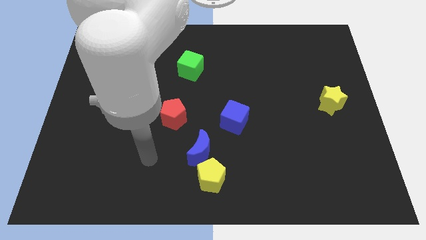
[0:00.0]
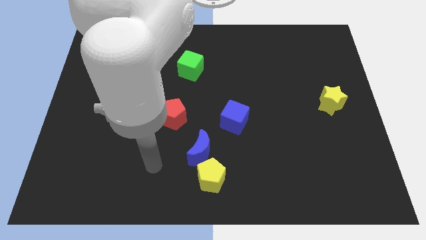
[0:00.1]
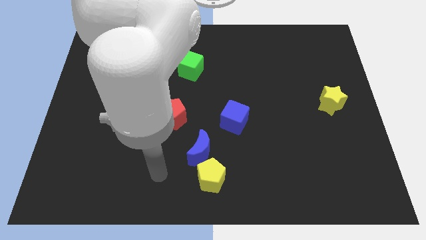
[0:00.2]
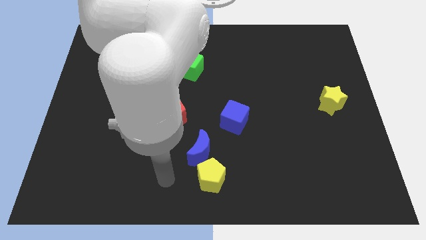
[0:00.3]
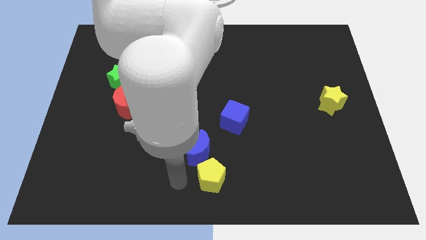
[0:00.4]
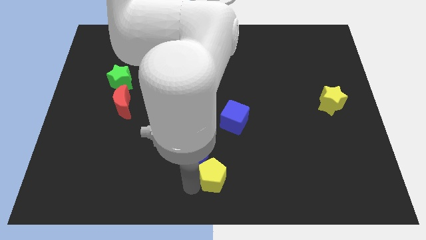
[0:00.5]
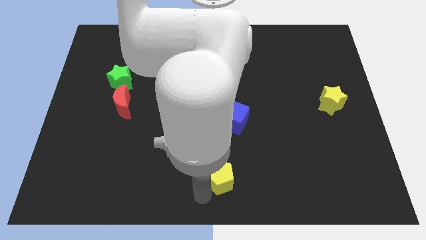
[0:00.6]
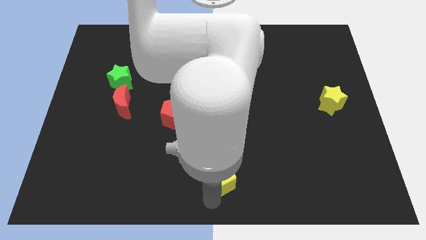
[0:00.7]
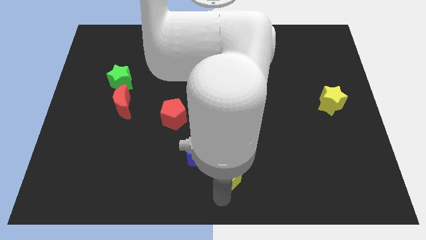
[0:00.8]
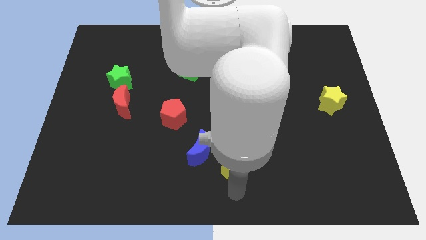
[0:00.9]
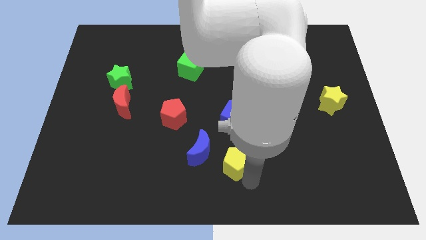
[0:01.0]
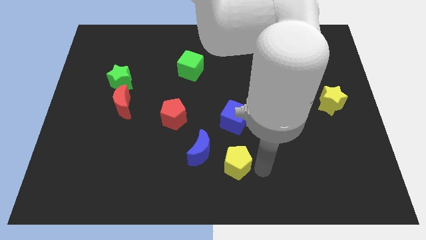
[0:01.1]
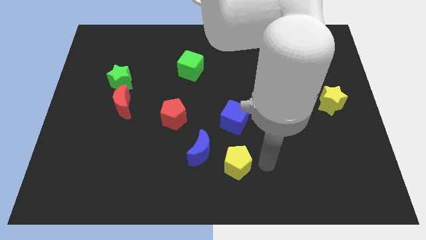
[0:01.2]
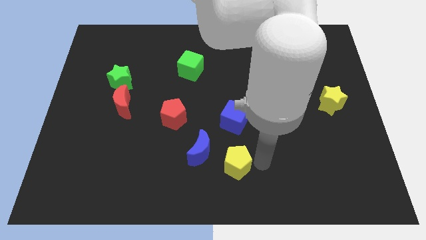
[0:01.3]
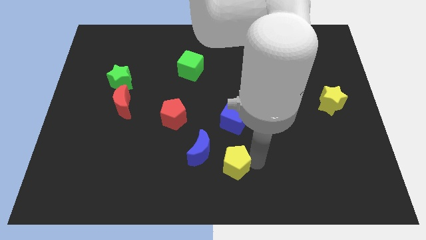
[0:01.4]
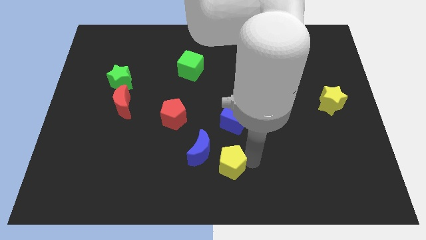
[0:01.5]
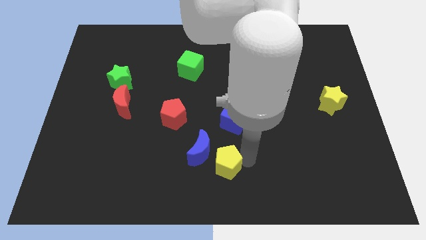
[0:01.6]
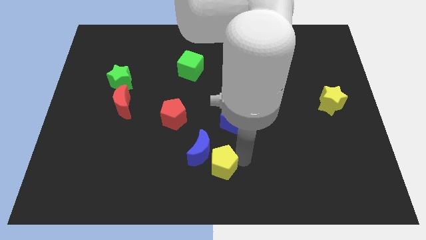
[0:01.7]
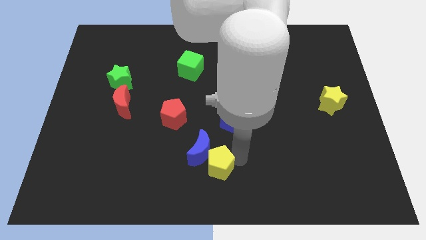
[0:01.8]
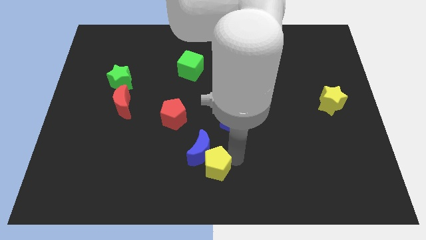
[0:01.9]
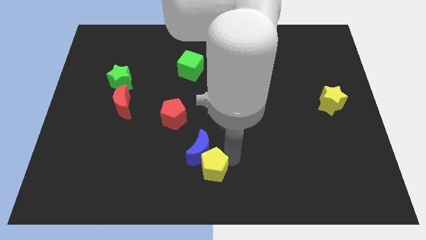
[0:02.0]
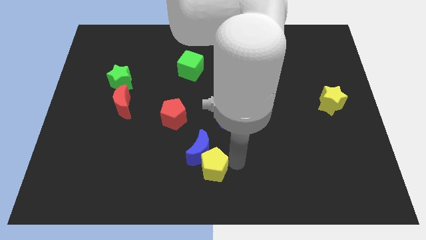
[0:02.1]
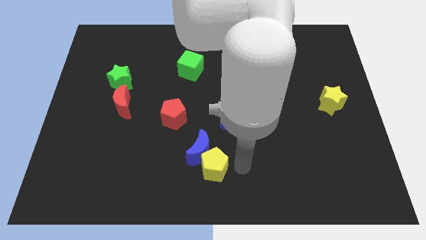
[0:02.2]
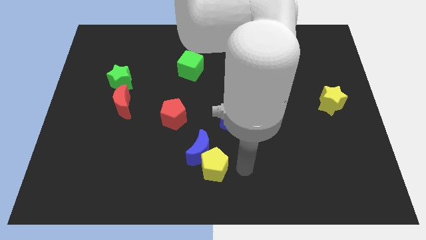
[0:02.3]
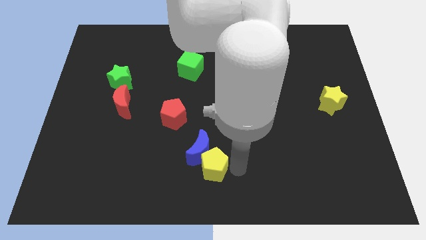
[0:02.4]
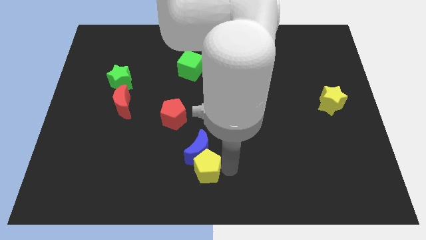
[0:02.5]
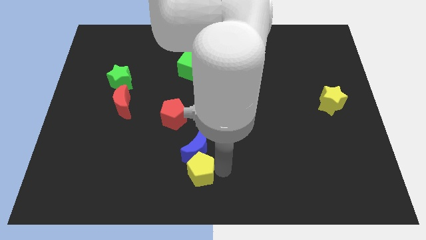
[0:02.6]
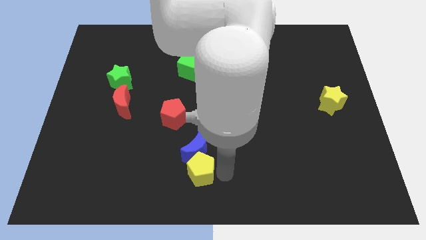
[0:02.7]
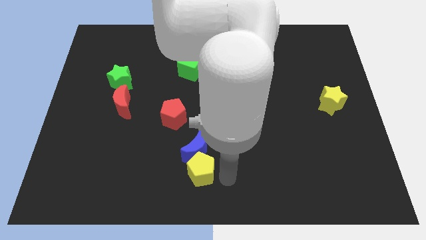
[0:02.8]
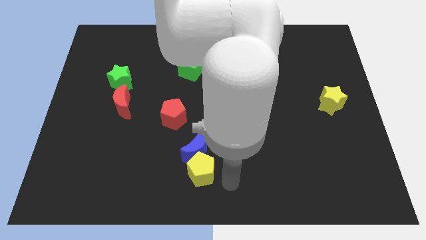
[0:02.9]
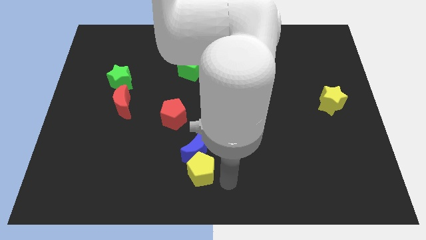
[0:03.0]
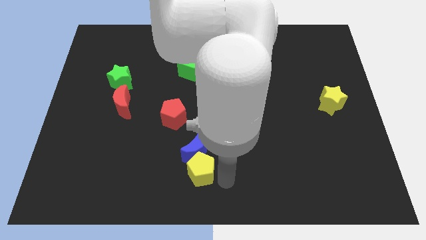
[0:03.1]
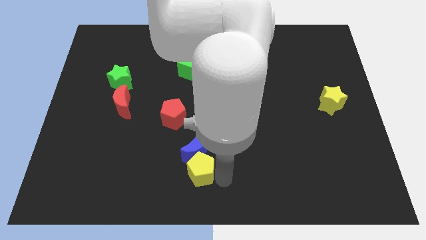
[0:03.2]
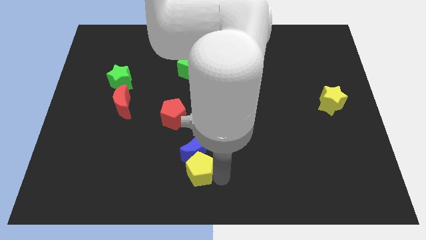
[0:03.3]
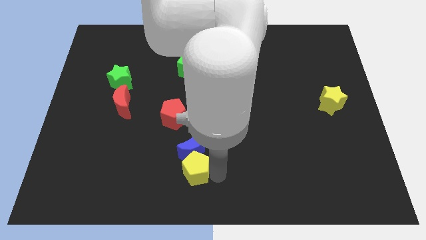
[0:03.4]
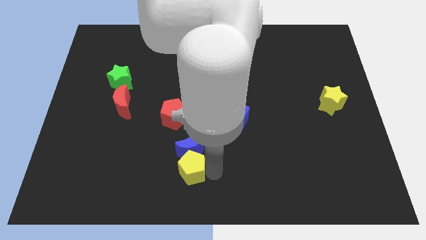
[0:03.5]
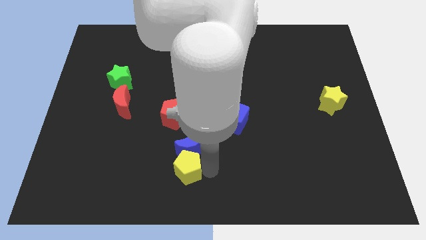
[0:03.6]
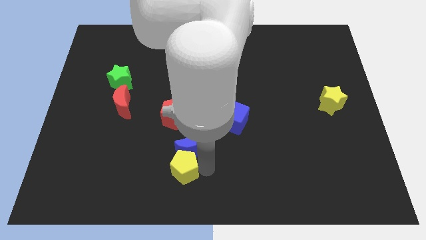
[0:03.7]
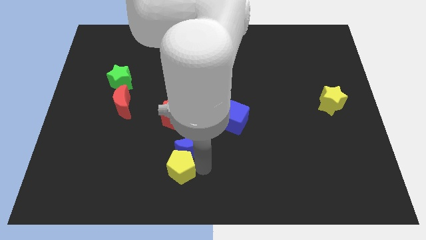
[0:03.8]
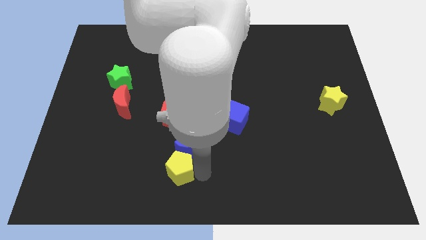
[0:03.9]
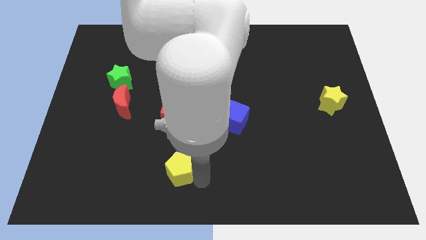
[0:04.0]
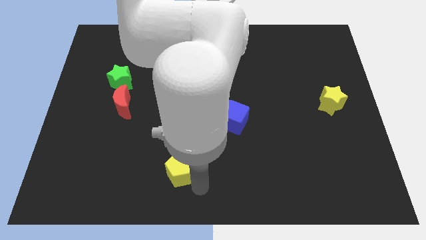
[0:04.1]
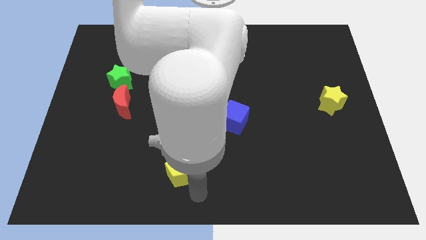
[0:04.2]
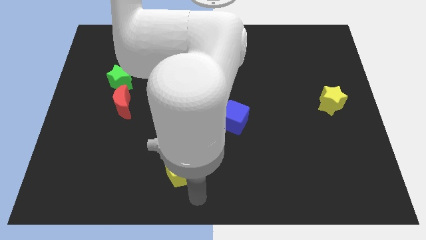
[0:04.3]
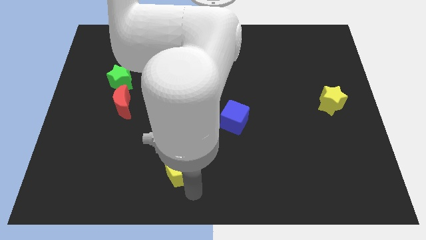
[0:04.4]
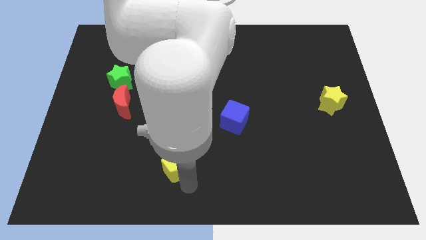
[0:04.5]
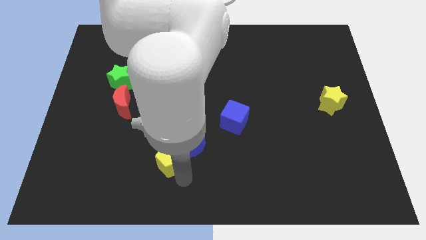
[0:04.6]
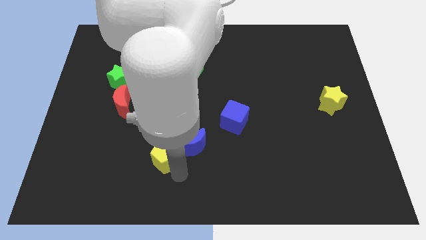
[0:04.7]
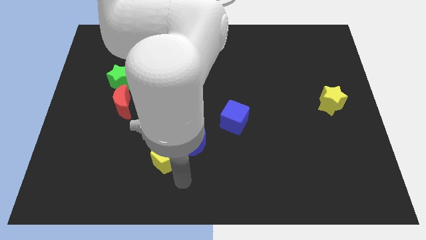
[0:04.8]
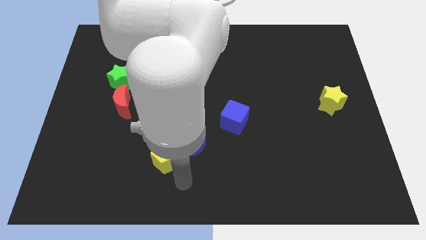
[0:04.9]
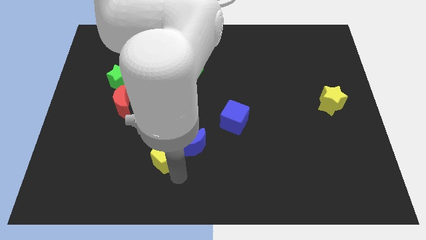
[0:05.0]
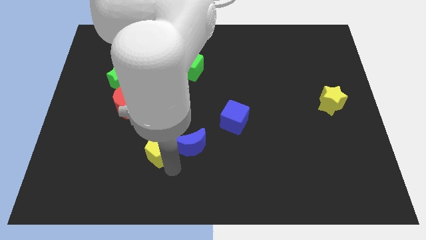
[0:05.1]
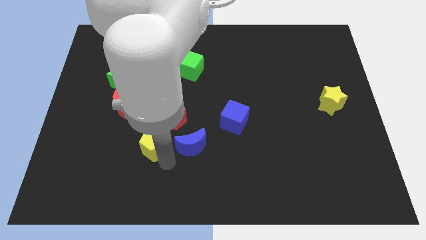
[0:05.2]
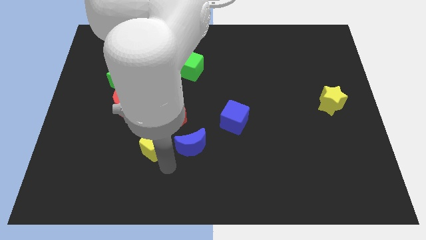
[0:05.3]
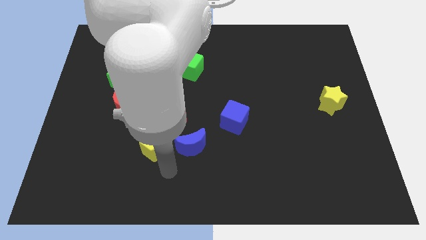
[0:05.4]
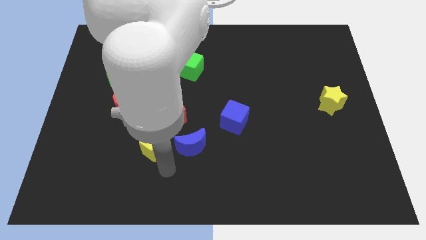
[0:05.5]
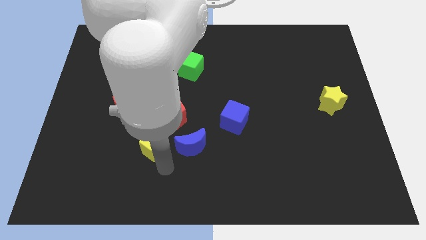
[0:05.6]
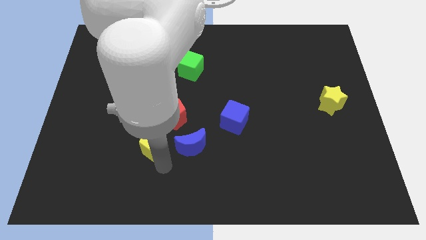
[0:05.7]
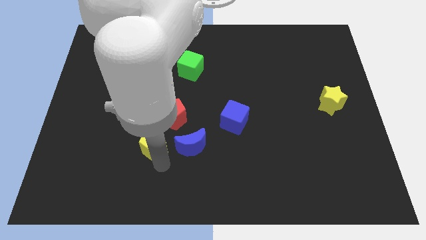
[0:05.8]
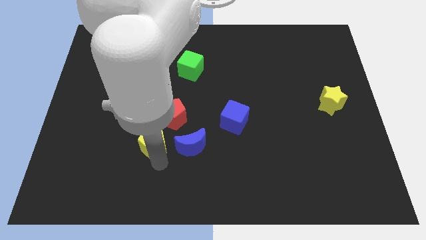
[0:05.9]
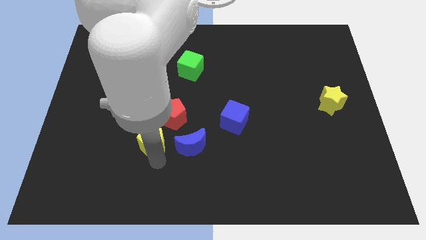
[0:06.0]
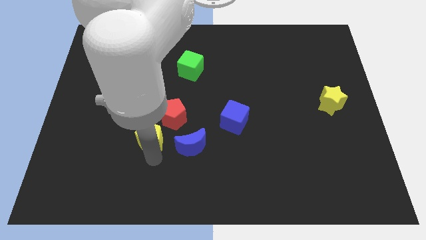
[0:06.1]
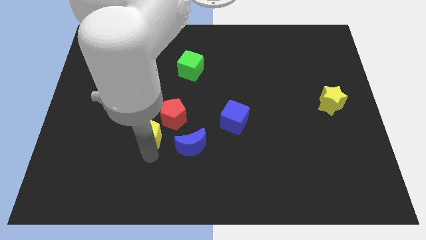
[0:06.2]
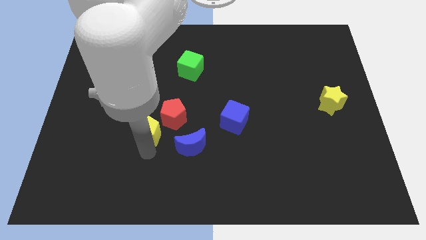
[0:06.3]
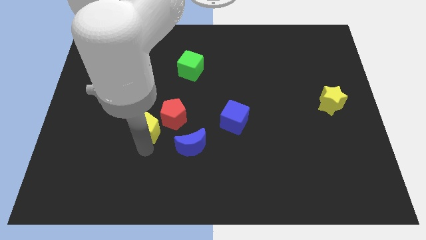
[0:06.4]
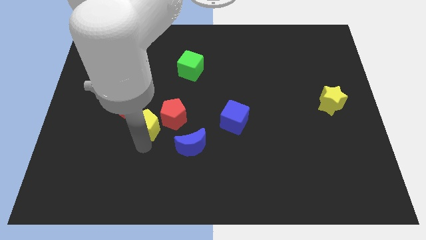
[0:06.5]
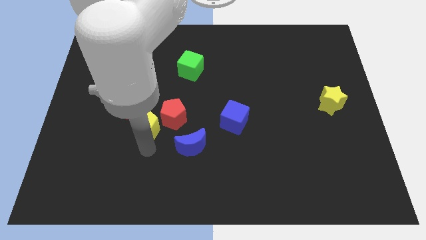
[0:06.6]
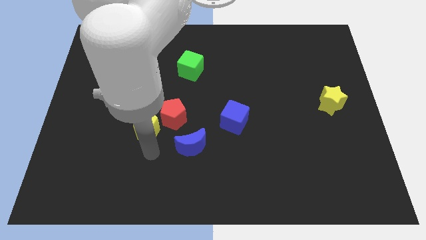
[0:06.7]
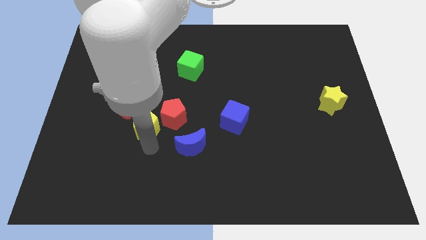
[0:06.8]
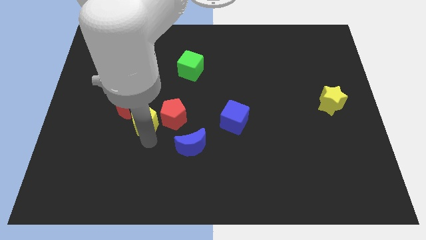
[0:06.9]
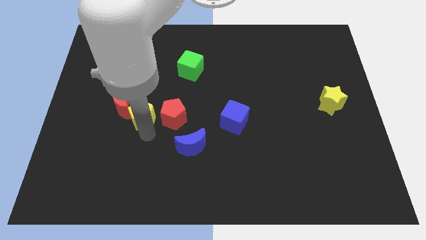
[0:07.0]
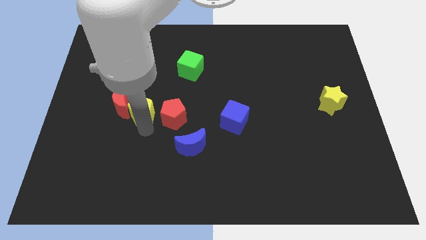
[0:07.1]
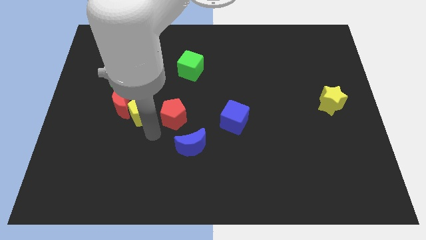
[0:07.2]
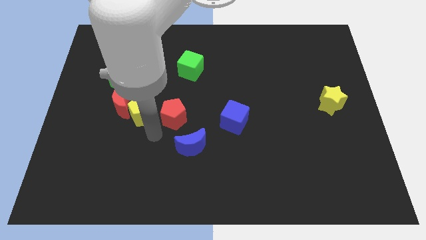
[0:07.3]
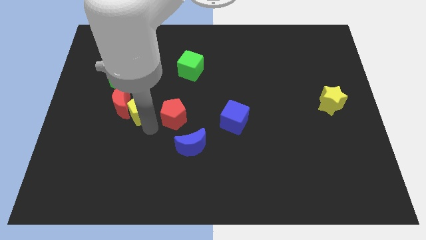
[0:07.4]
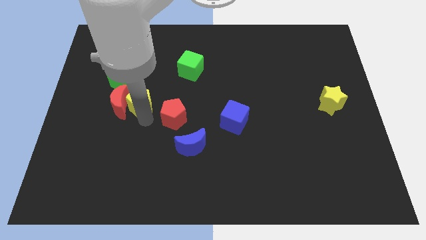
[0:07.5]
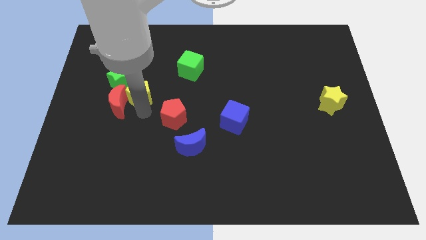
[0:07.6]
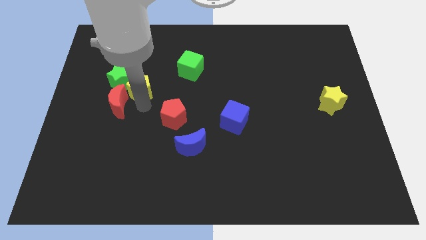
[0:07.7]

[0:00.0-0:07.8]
slide the yellow pentagon to the green star
